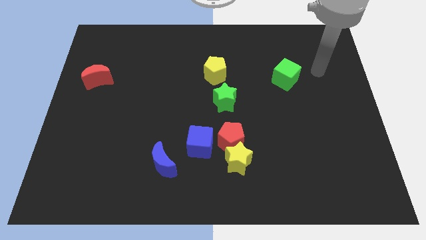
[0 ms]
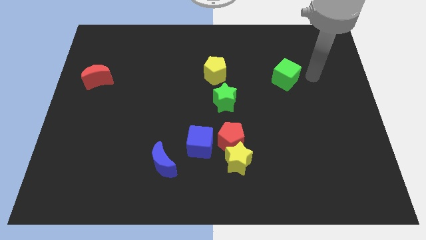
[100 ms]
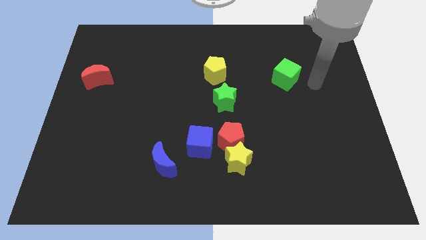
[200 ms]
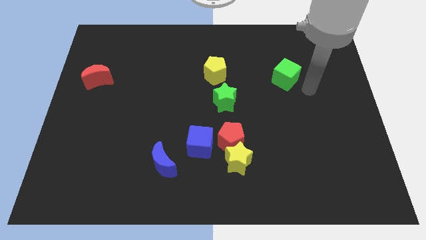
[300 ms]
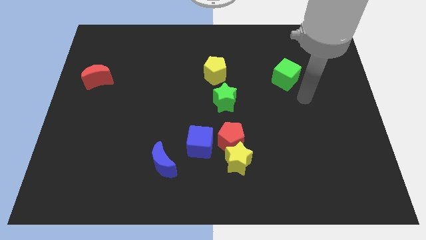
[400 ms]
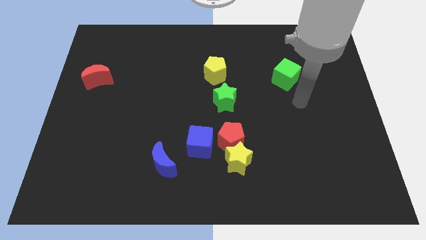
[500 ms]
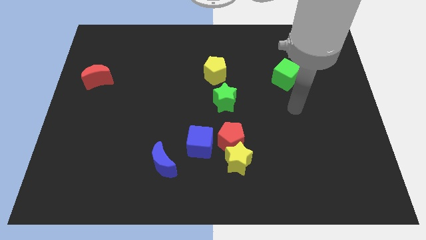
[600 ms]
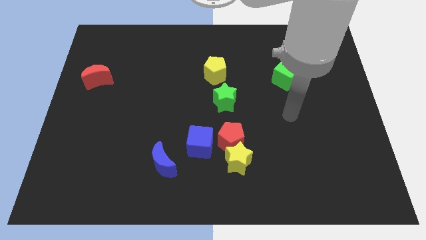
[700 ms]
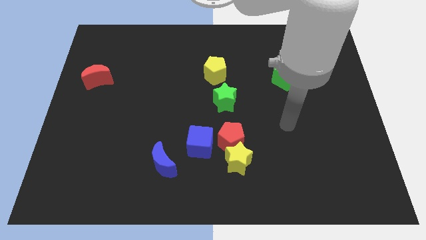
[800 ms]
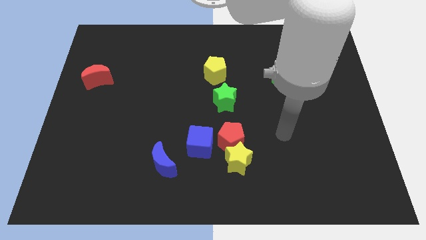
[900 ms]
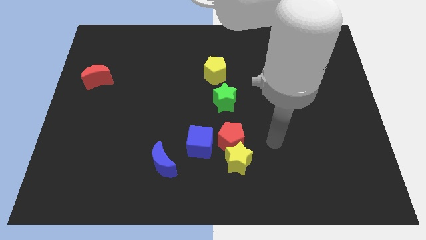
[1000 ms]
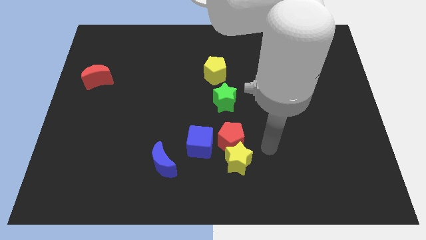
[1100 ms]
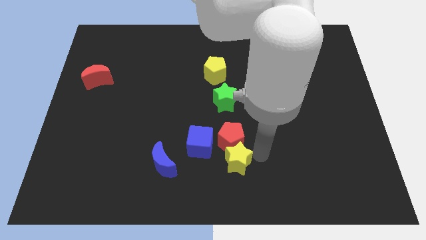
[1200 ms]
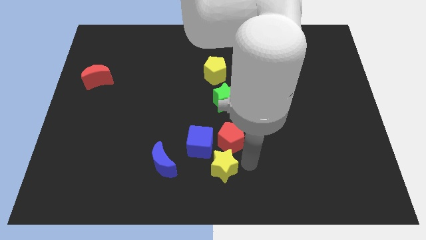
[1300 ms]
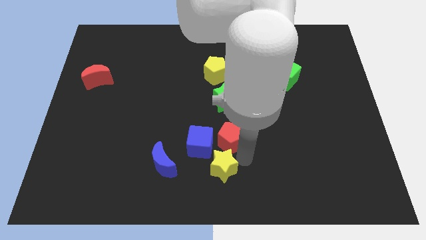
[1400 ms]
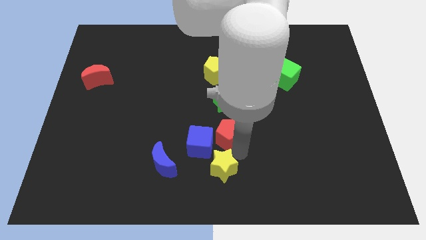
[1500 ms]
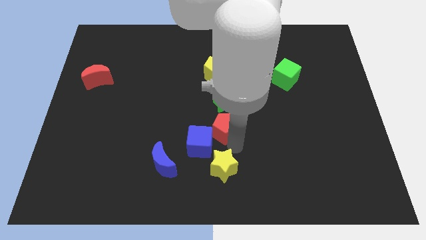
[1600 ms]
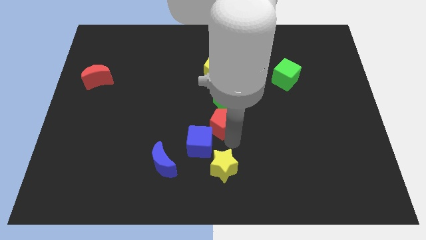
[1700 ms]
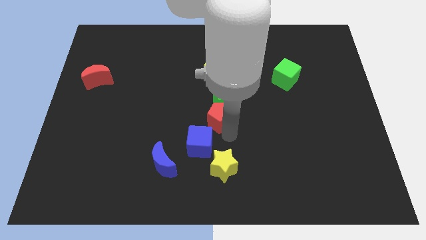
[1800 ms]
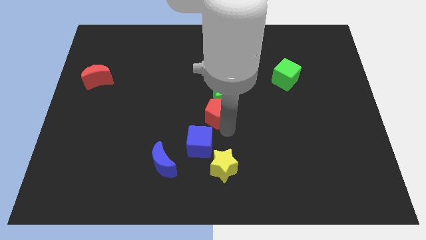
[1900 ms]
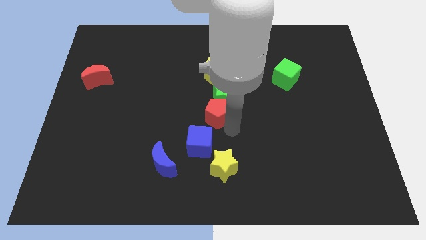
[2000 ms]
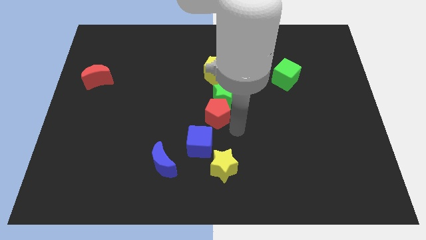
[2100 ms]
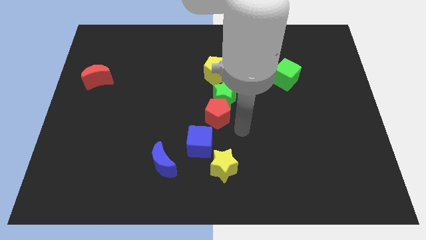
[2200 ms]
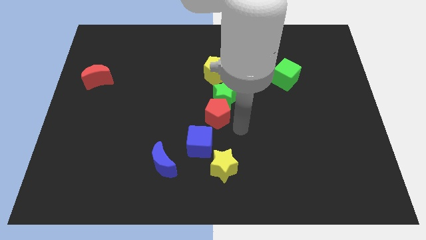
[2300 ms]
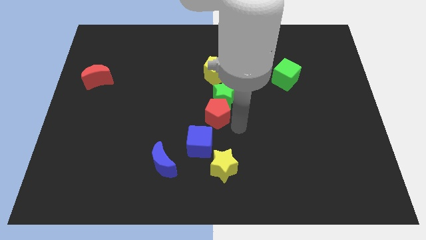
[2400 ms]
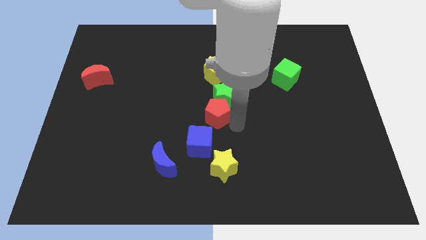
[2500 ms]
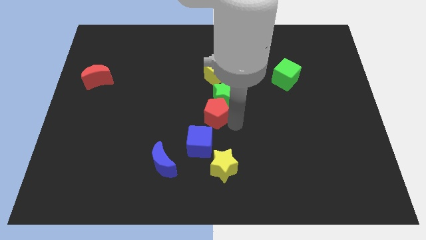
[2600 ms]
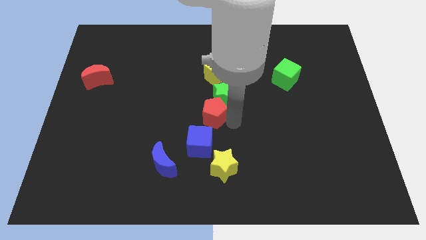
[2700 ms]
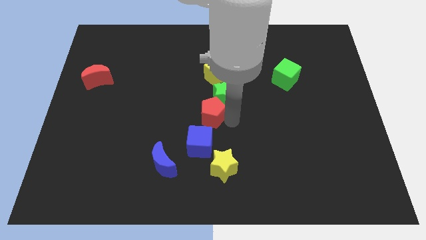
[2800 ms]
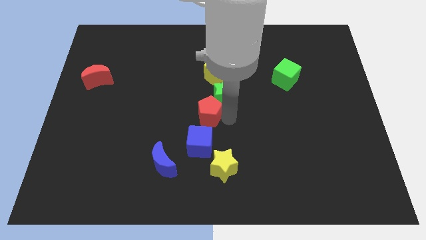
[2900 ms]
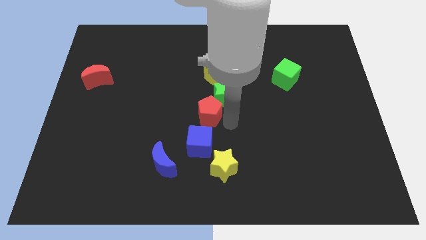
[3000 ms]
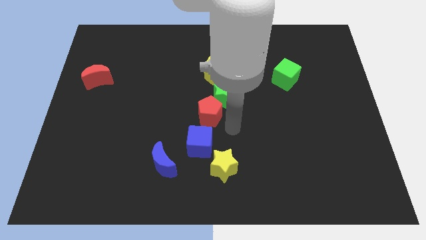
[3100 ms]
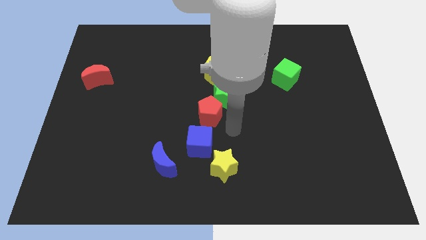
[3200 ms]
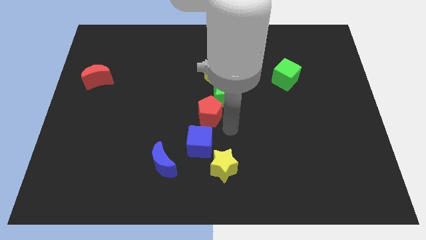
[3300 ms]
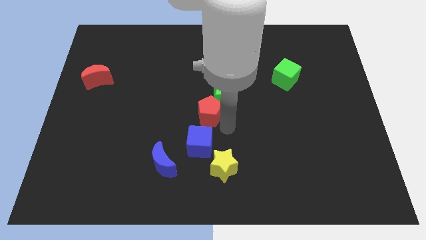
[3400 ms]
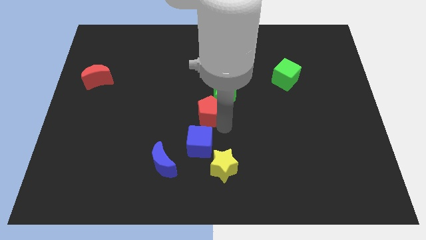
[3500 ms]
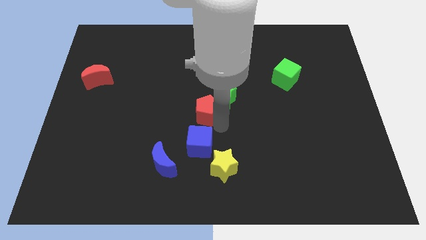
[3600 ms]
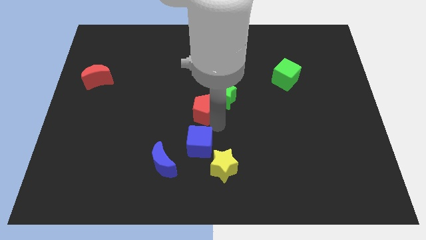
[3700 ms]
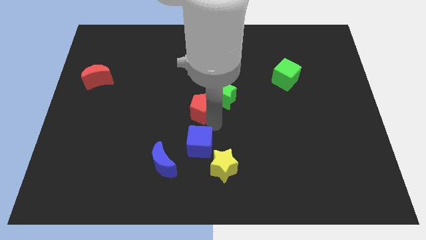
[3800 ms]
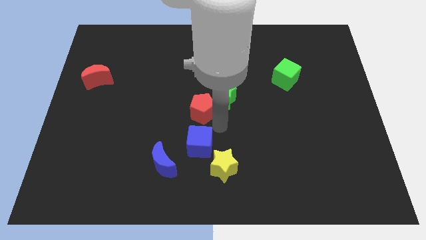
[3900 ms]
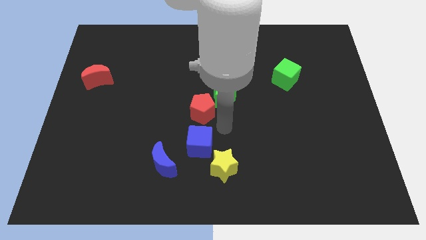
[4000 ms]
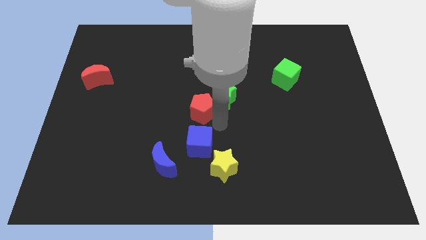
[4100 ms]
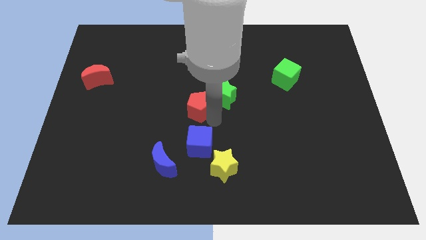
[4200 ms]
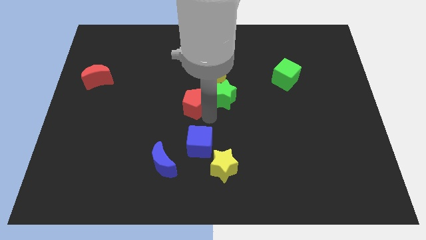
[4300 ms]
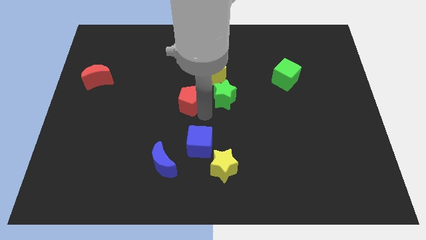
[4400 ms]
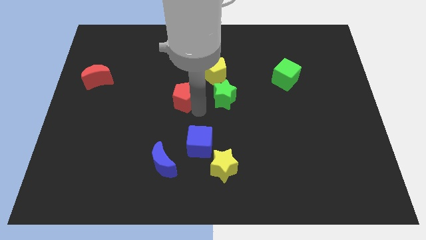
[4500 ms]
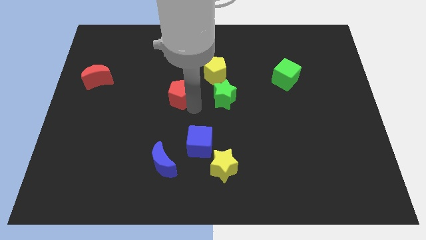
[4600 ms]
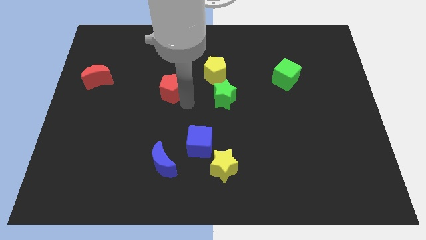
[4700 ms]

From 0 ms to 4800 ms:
push the red pentagon up and then to the left

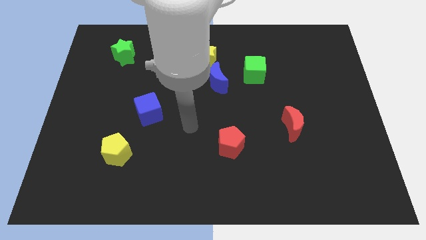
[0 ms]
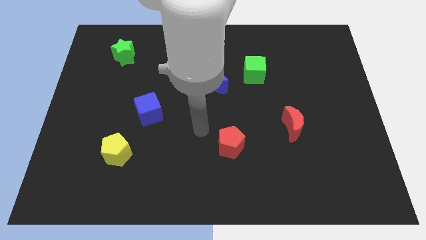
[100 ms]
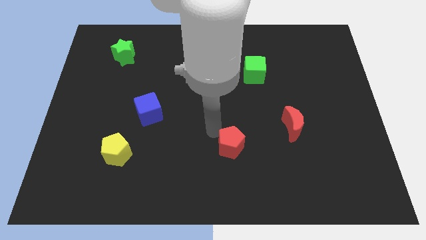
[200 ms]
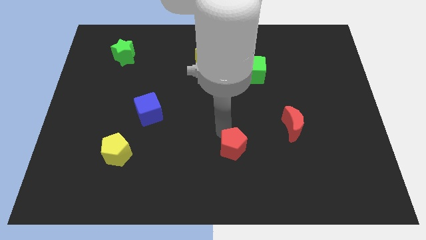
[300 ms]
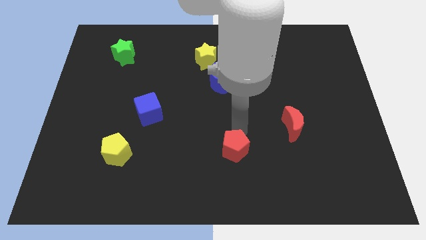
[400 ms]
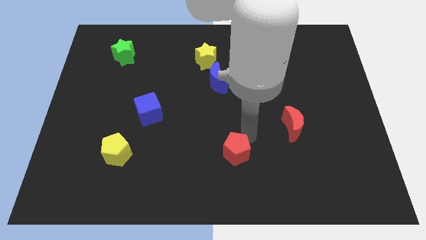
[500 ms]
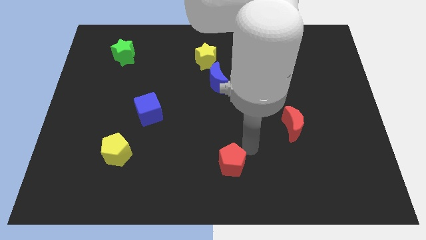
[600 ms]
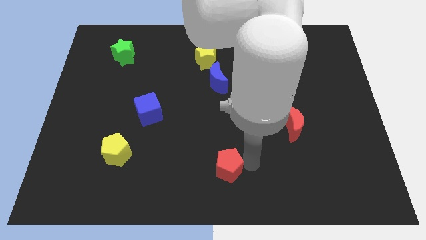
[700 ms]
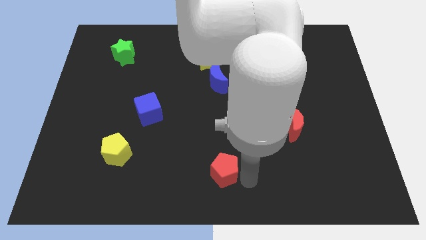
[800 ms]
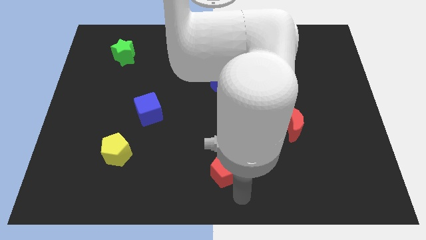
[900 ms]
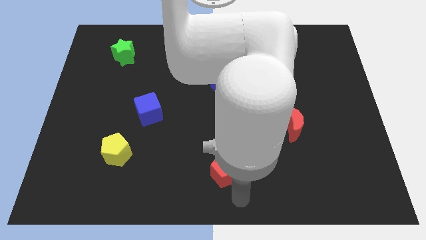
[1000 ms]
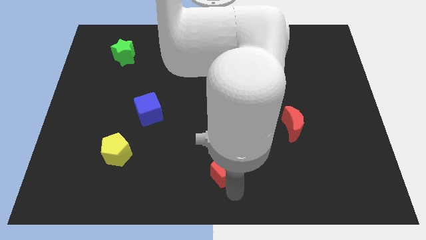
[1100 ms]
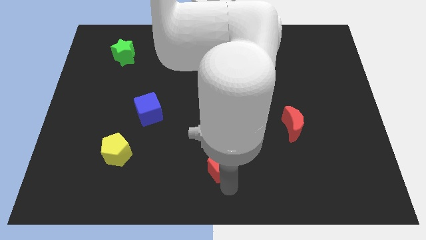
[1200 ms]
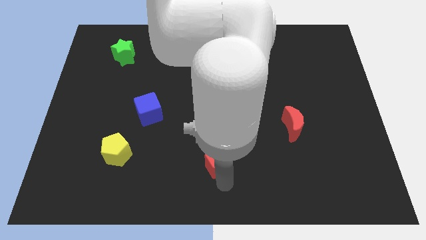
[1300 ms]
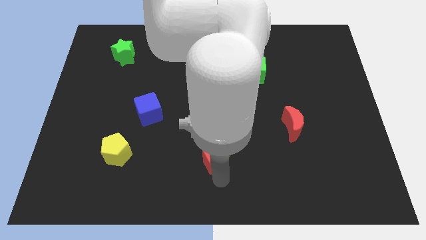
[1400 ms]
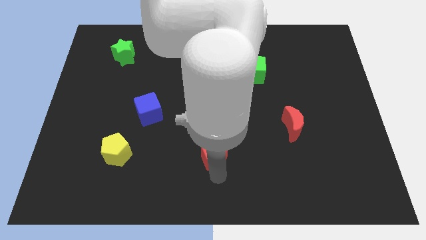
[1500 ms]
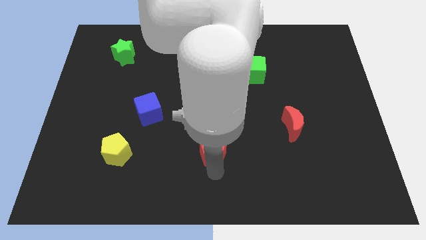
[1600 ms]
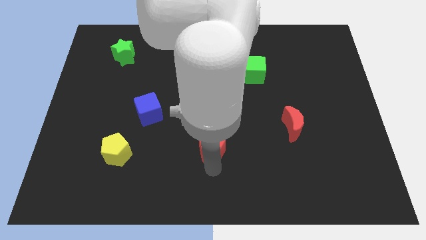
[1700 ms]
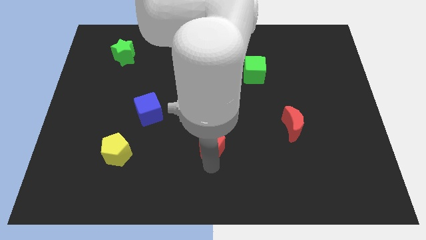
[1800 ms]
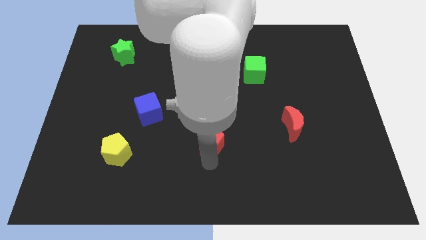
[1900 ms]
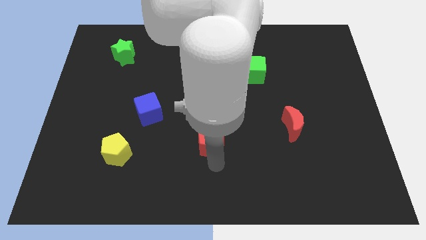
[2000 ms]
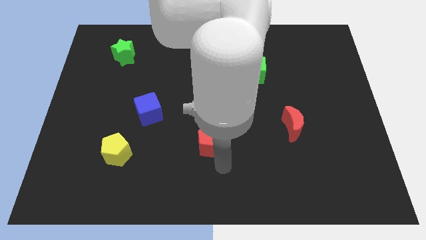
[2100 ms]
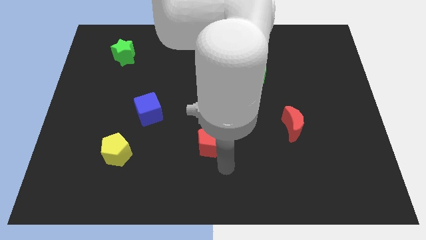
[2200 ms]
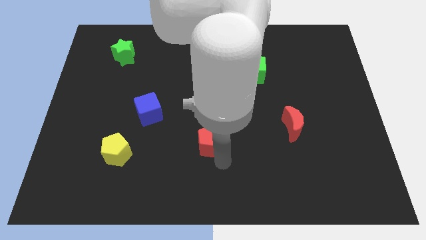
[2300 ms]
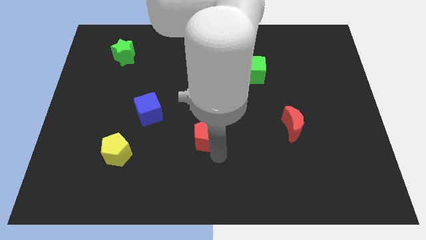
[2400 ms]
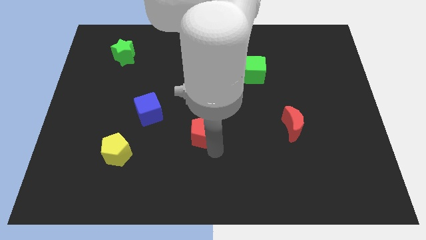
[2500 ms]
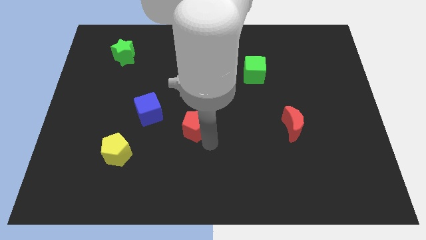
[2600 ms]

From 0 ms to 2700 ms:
move the red pentagon a bit up and to the left

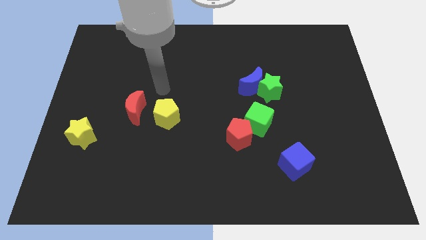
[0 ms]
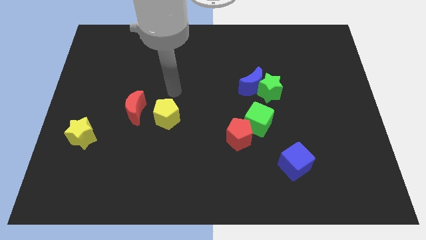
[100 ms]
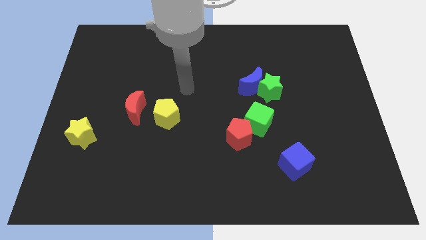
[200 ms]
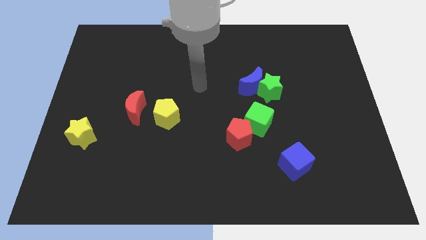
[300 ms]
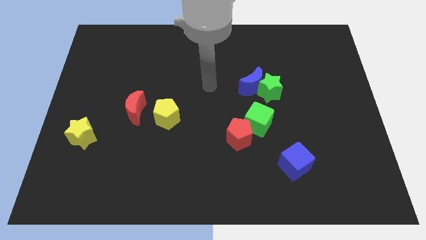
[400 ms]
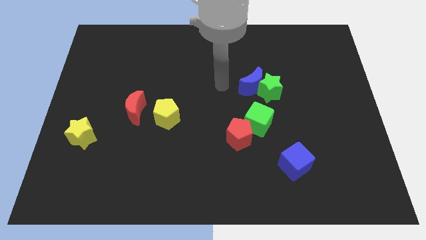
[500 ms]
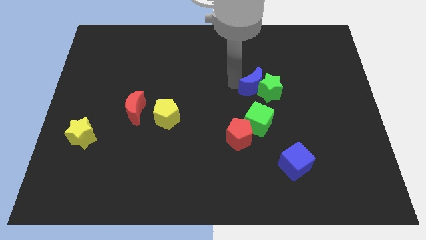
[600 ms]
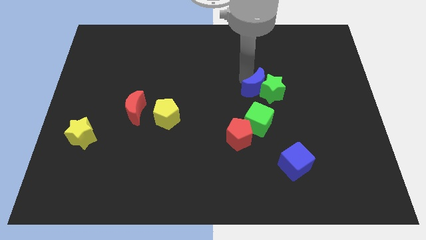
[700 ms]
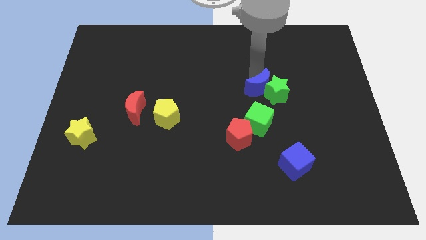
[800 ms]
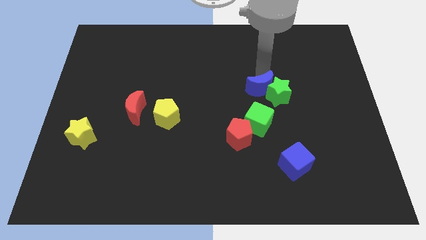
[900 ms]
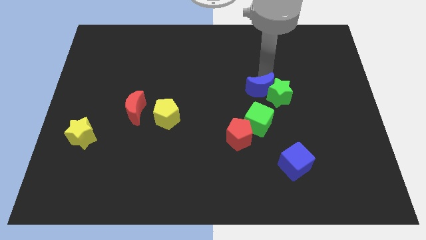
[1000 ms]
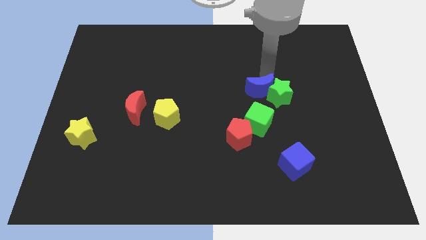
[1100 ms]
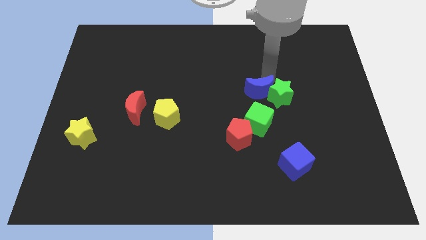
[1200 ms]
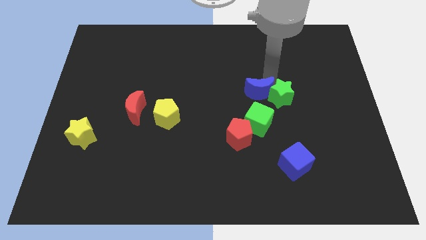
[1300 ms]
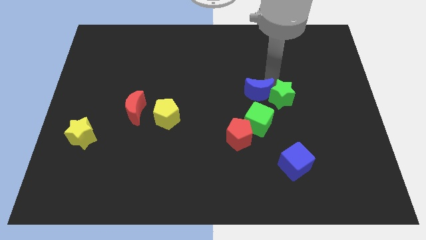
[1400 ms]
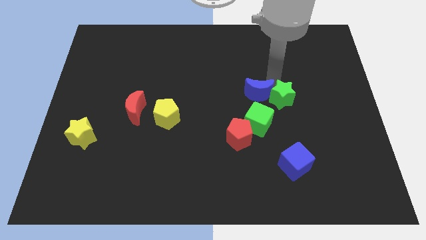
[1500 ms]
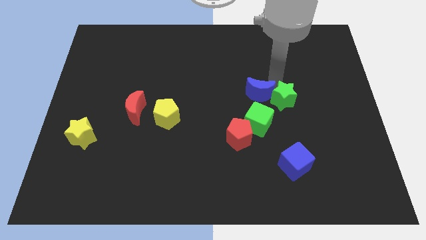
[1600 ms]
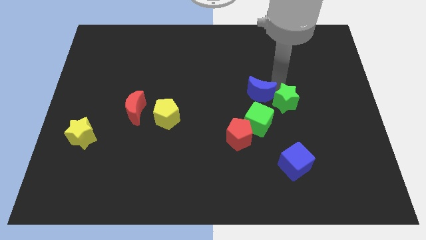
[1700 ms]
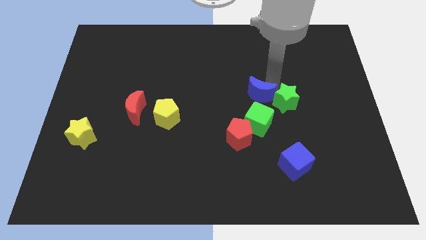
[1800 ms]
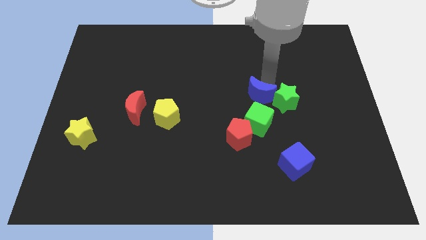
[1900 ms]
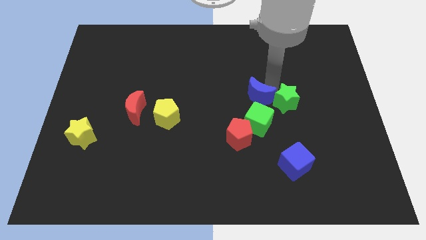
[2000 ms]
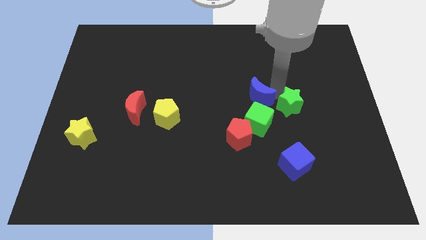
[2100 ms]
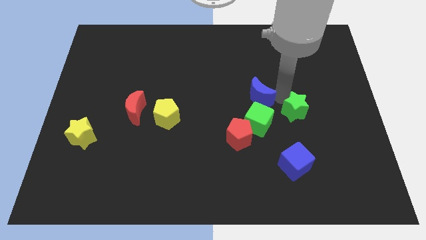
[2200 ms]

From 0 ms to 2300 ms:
move the green star a little down and right diagonally
